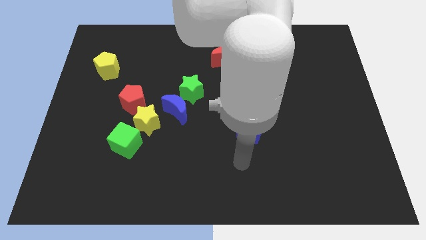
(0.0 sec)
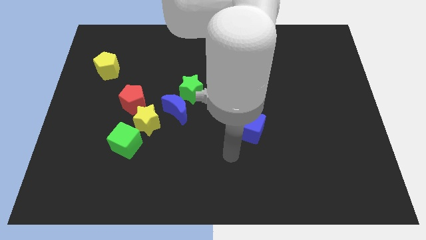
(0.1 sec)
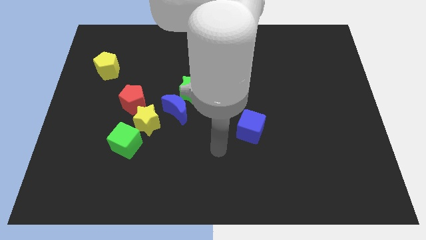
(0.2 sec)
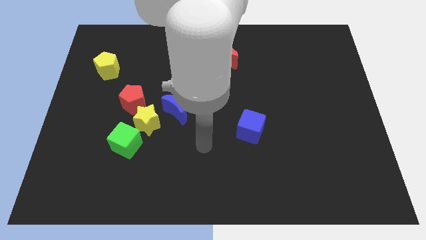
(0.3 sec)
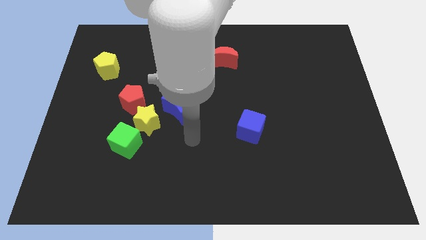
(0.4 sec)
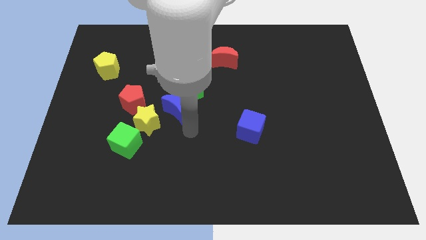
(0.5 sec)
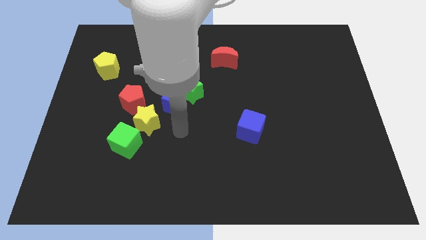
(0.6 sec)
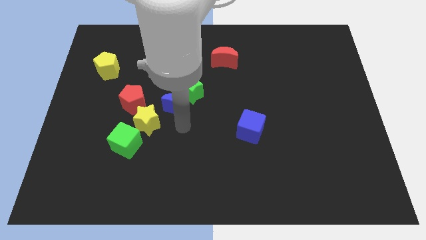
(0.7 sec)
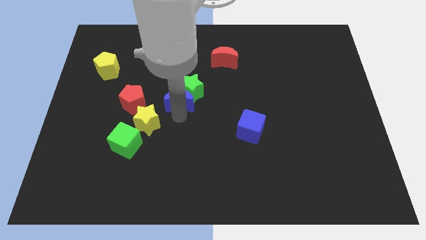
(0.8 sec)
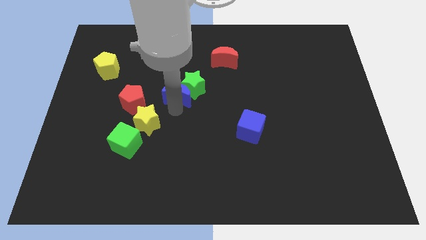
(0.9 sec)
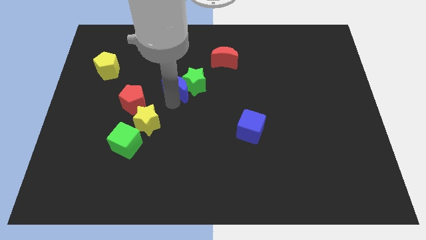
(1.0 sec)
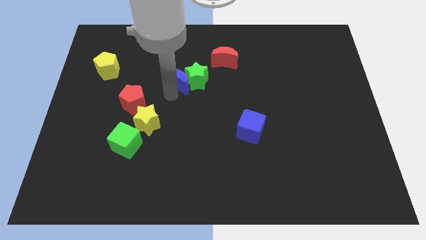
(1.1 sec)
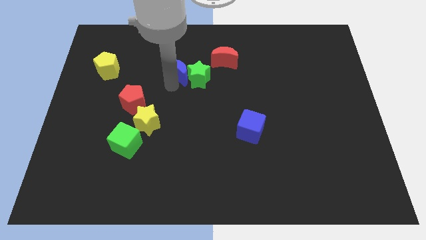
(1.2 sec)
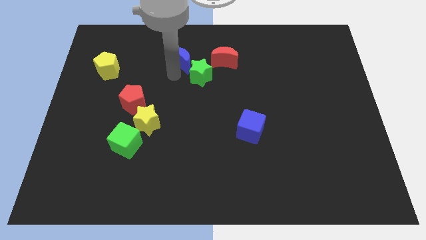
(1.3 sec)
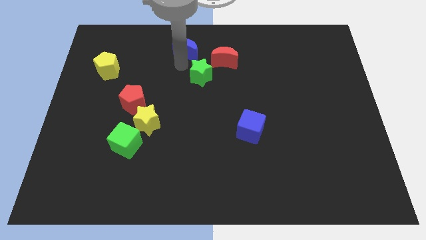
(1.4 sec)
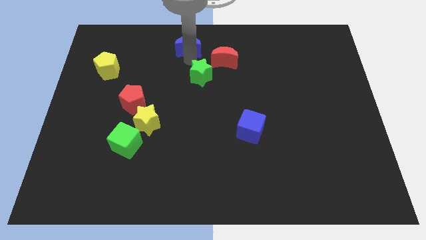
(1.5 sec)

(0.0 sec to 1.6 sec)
move the green star away from the blue moon

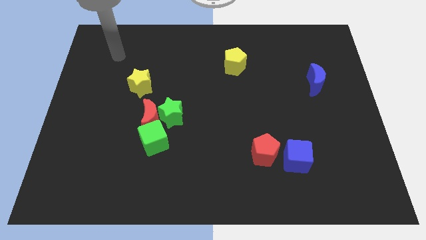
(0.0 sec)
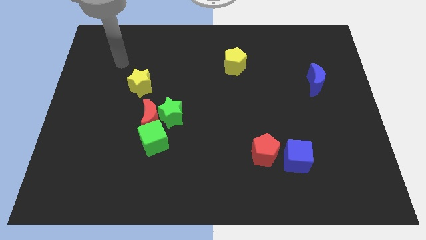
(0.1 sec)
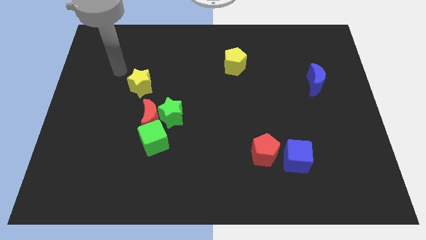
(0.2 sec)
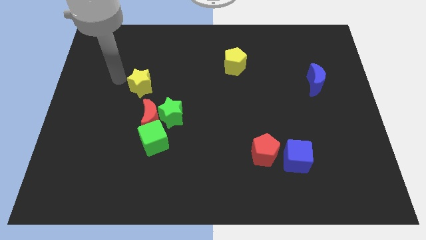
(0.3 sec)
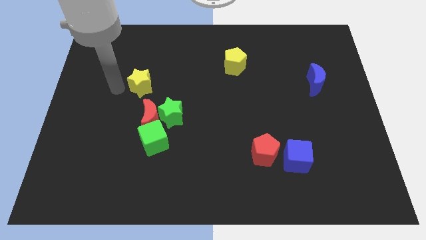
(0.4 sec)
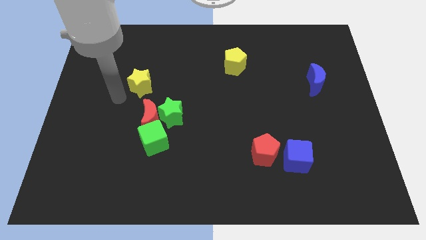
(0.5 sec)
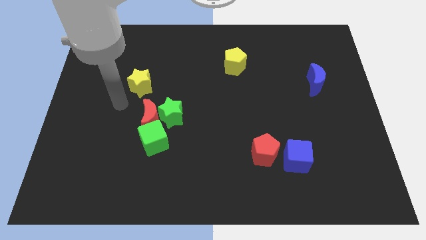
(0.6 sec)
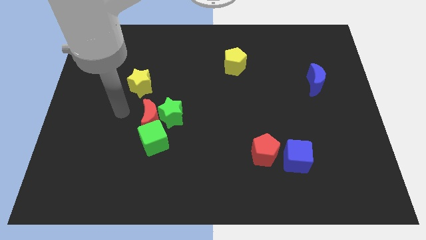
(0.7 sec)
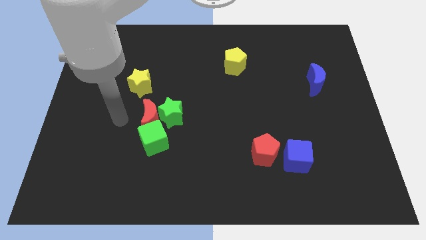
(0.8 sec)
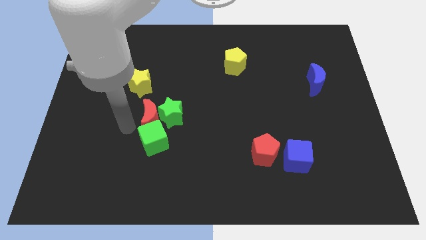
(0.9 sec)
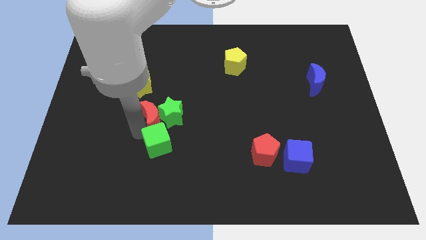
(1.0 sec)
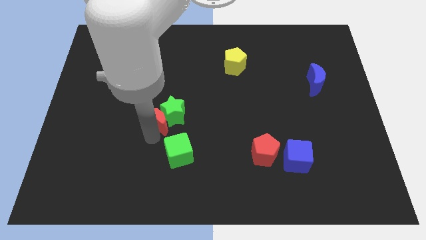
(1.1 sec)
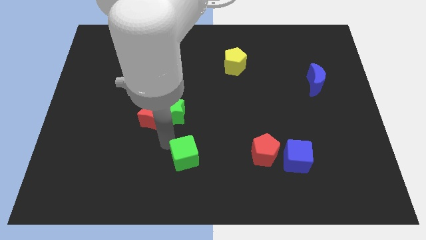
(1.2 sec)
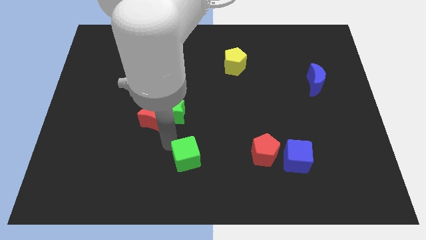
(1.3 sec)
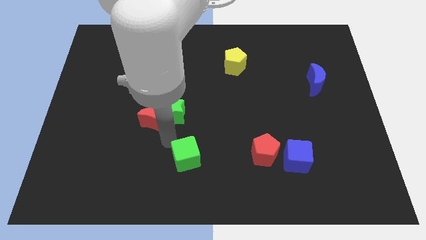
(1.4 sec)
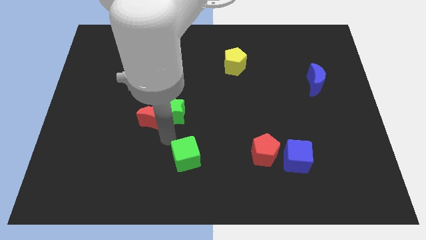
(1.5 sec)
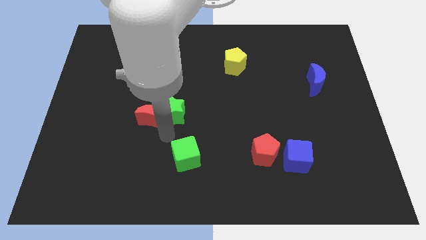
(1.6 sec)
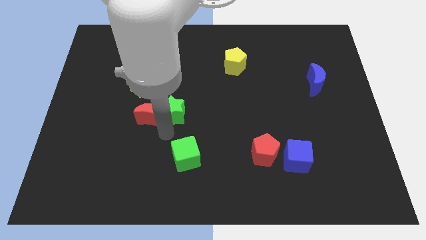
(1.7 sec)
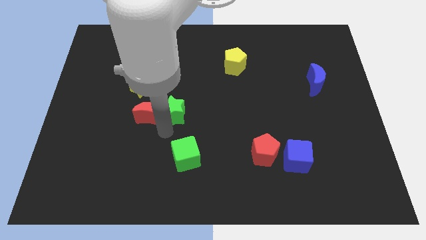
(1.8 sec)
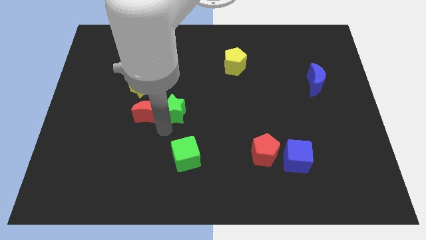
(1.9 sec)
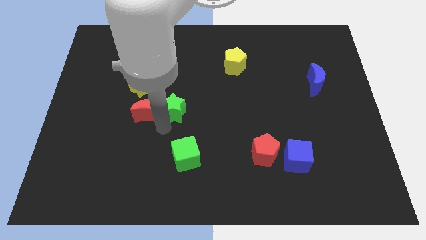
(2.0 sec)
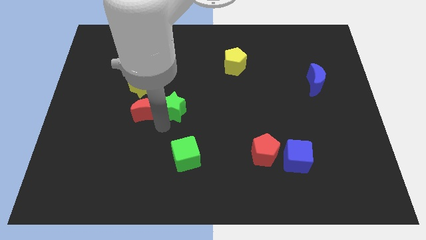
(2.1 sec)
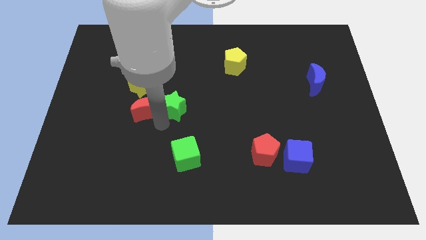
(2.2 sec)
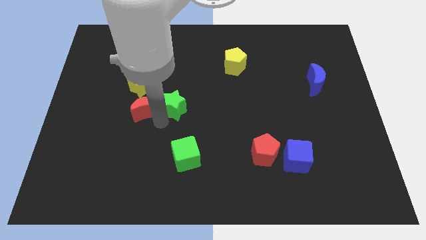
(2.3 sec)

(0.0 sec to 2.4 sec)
move the red moon away from the green star and green cube

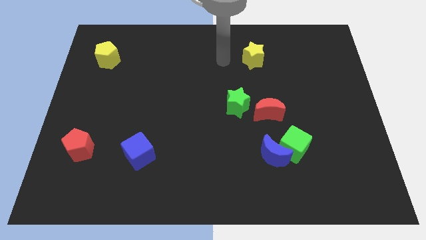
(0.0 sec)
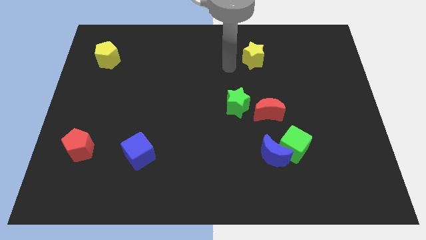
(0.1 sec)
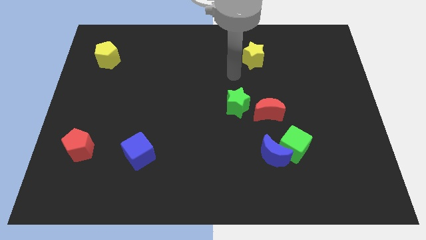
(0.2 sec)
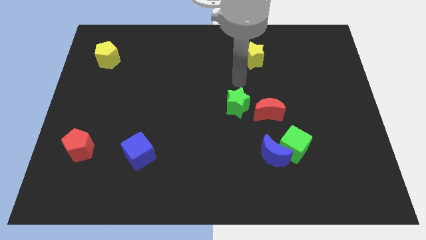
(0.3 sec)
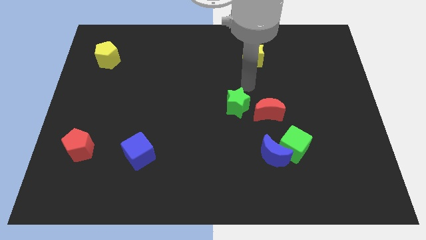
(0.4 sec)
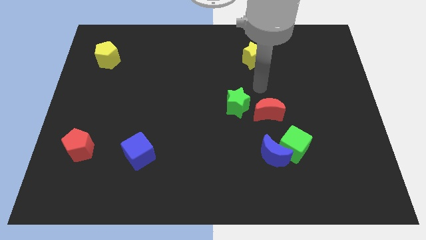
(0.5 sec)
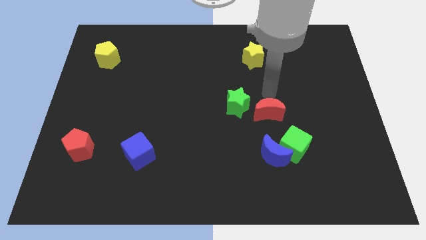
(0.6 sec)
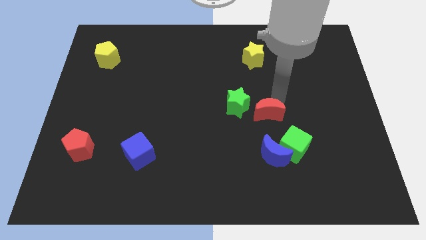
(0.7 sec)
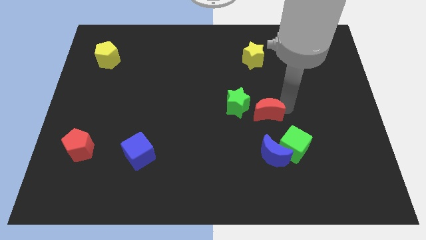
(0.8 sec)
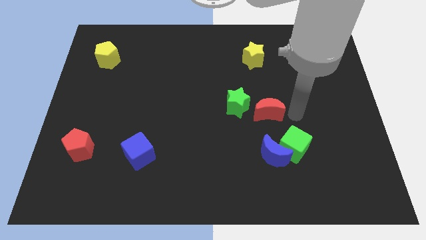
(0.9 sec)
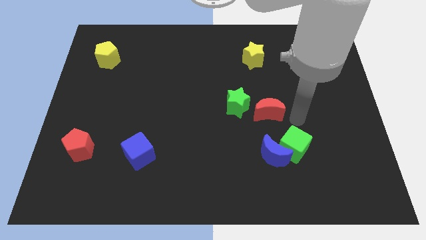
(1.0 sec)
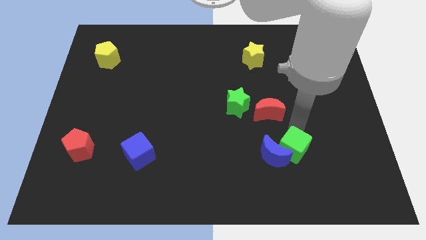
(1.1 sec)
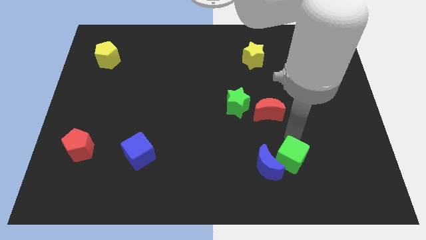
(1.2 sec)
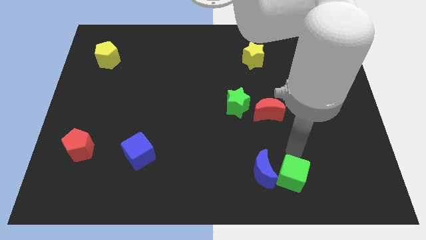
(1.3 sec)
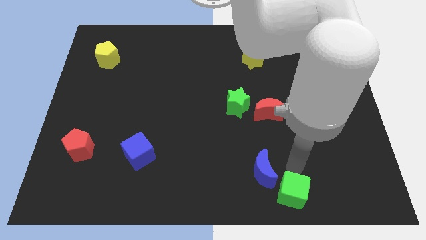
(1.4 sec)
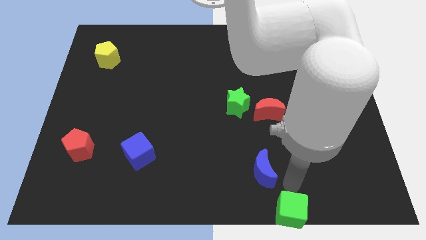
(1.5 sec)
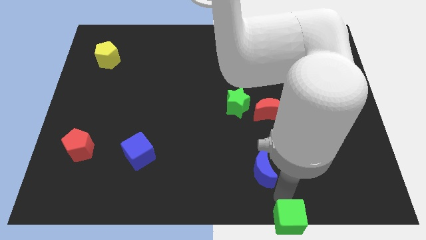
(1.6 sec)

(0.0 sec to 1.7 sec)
pull the blue moon apart from the green cube

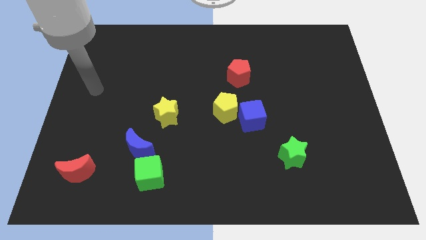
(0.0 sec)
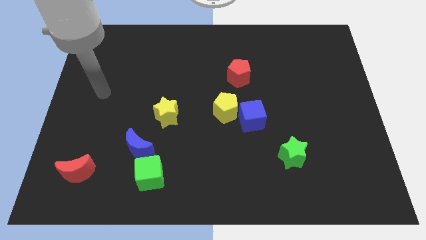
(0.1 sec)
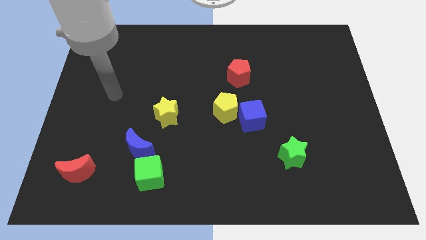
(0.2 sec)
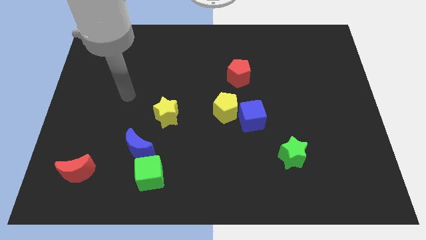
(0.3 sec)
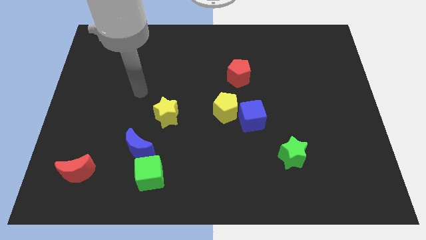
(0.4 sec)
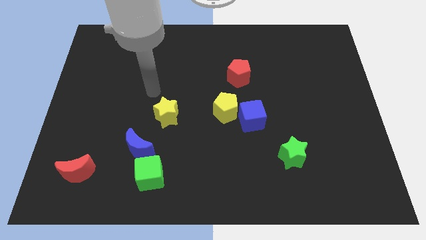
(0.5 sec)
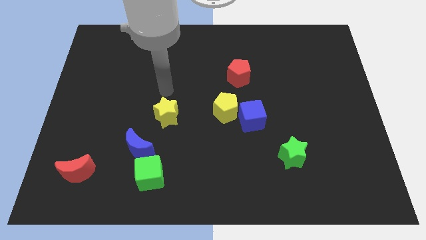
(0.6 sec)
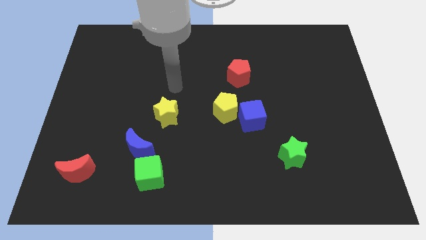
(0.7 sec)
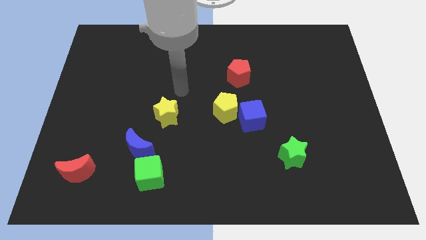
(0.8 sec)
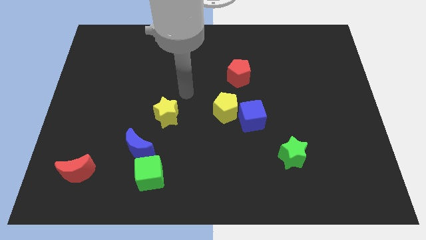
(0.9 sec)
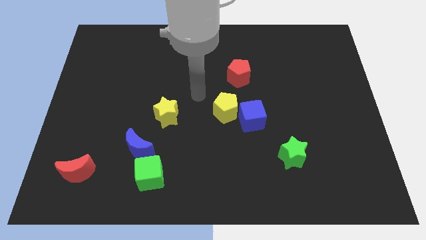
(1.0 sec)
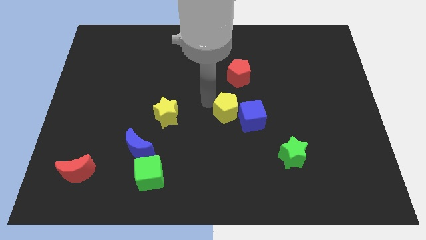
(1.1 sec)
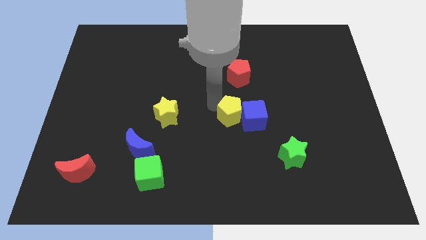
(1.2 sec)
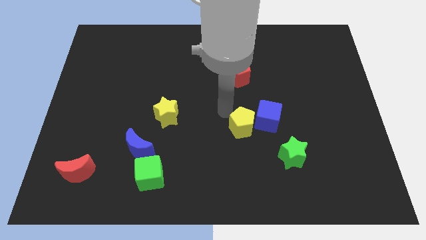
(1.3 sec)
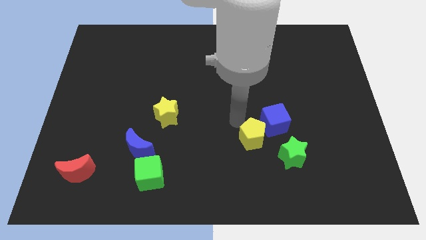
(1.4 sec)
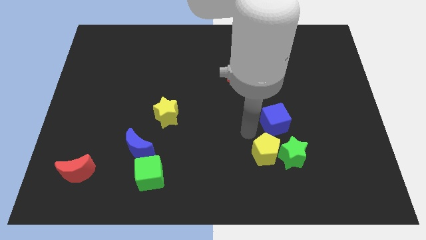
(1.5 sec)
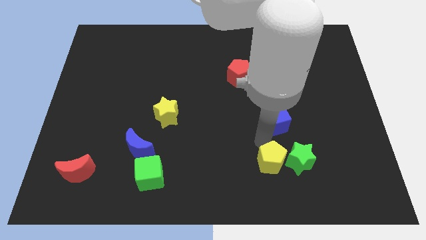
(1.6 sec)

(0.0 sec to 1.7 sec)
separate the blue cube from the yellow pentagon

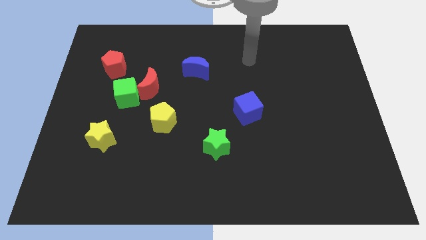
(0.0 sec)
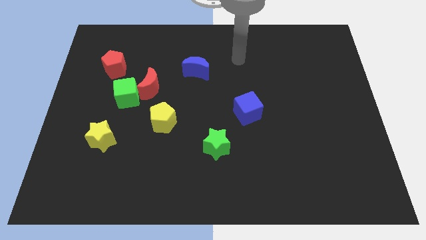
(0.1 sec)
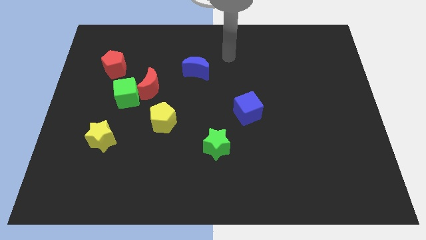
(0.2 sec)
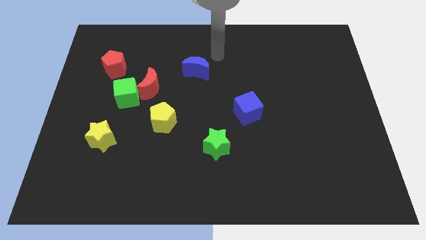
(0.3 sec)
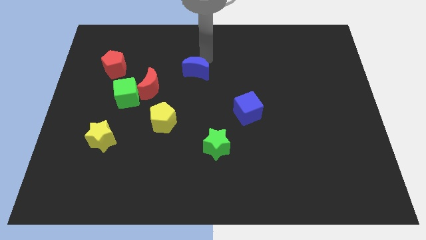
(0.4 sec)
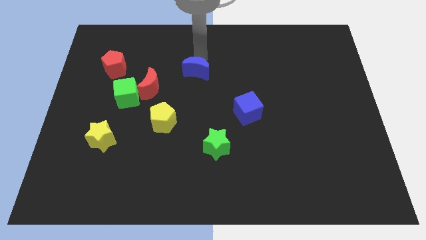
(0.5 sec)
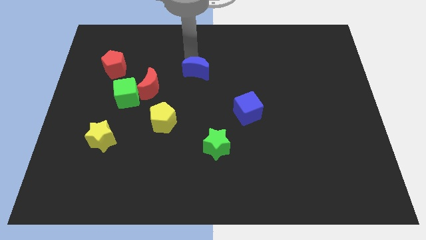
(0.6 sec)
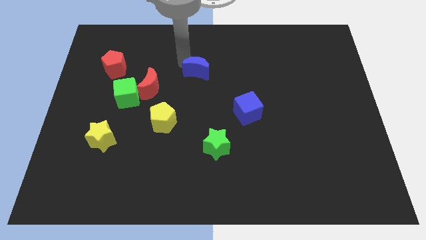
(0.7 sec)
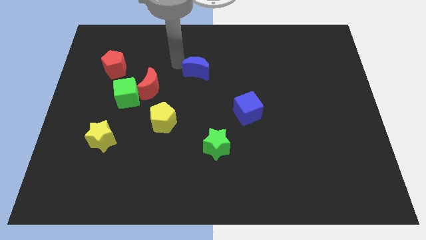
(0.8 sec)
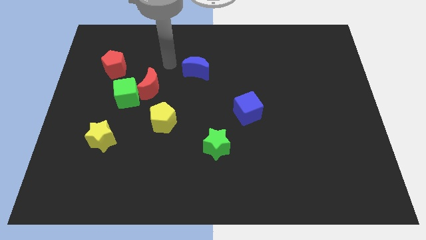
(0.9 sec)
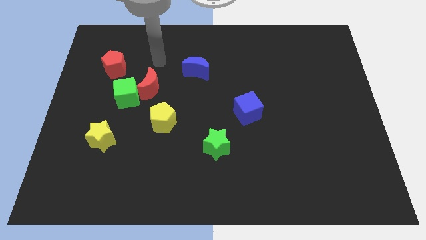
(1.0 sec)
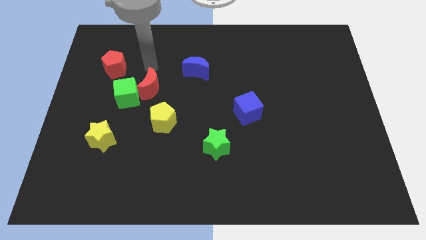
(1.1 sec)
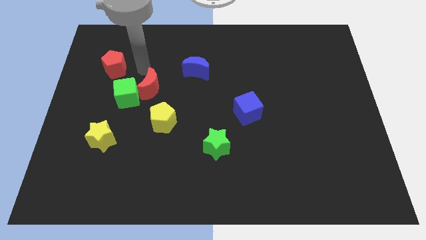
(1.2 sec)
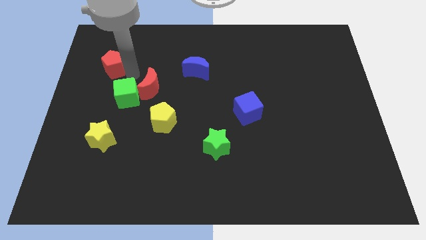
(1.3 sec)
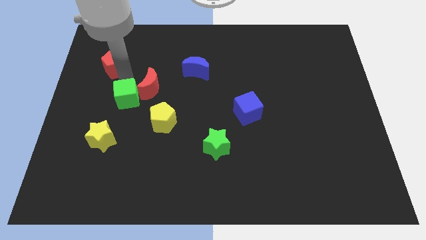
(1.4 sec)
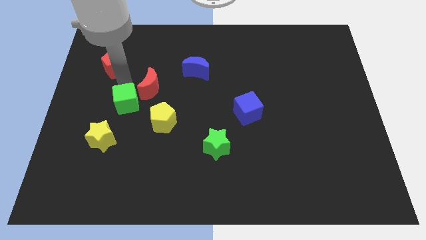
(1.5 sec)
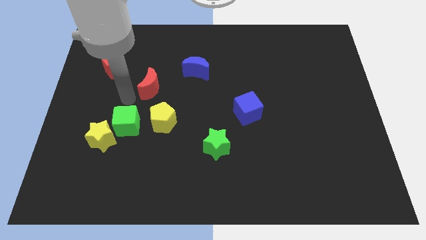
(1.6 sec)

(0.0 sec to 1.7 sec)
separate the red moon from the green cube

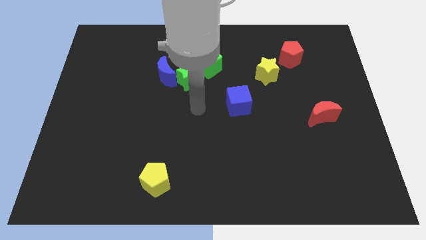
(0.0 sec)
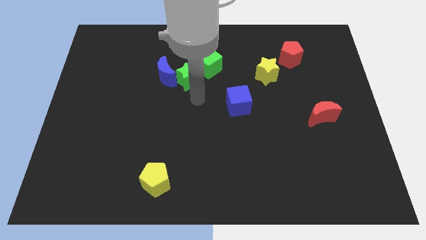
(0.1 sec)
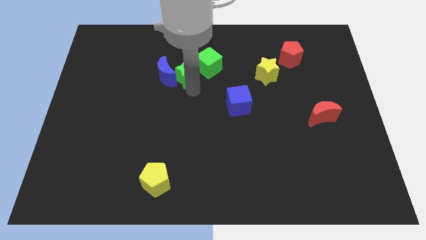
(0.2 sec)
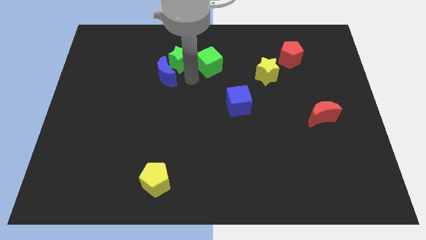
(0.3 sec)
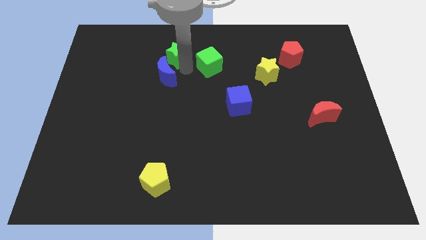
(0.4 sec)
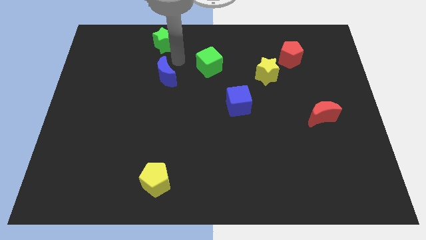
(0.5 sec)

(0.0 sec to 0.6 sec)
pull the blue moon apart from the green star
